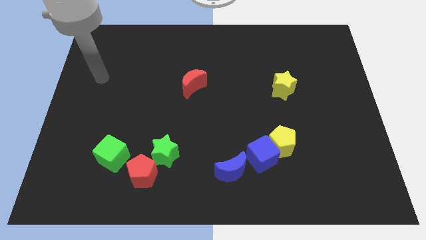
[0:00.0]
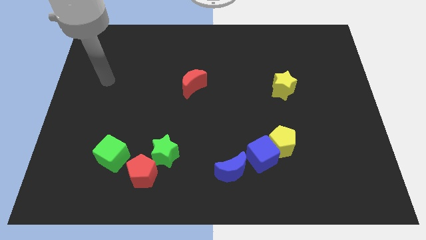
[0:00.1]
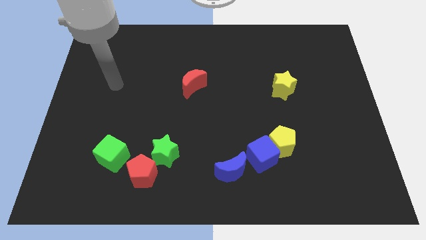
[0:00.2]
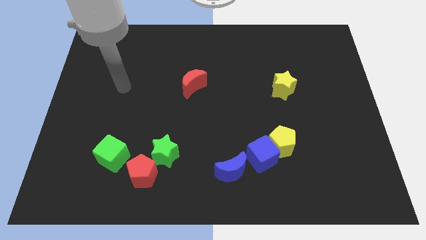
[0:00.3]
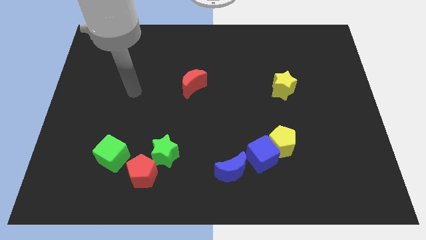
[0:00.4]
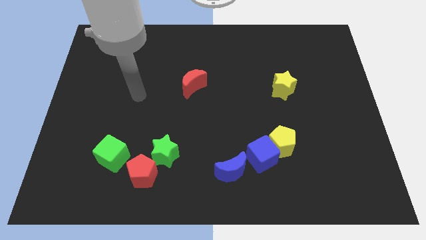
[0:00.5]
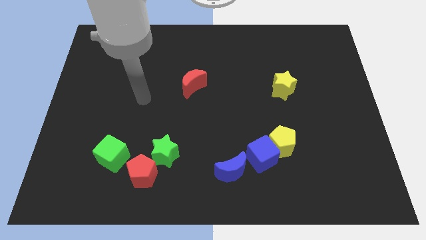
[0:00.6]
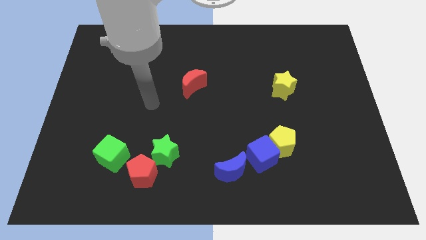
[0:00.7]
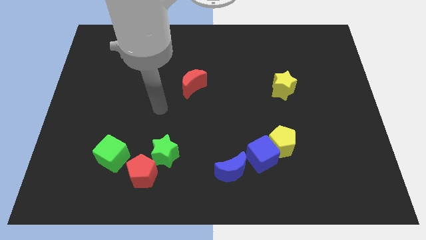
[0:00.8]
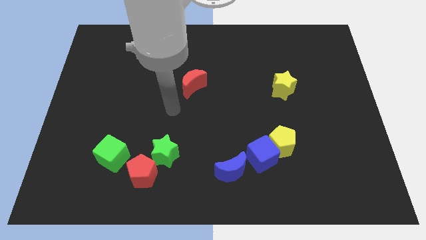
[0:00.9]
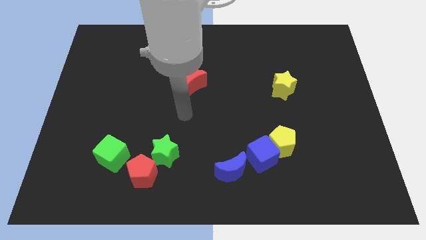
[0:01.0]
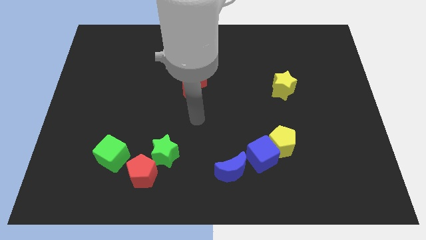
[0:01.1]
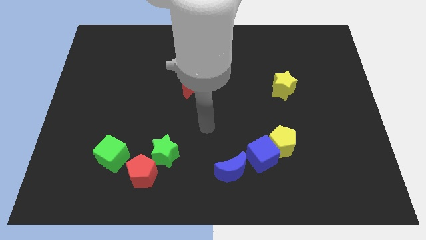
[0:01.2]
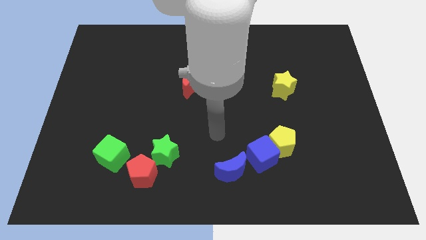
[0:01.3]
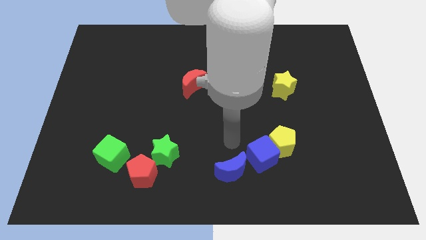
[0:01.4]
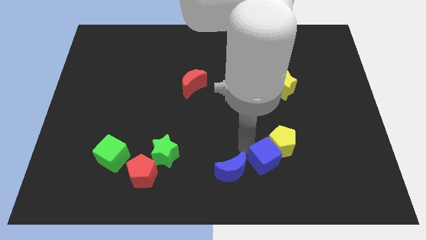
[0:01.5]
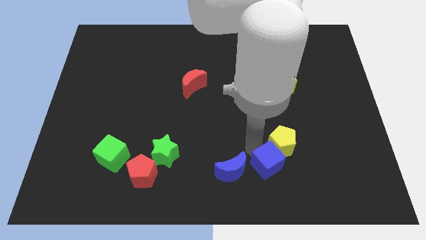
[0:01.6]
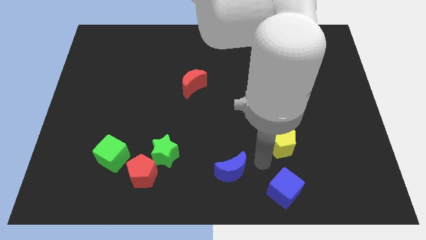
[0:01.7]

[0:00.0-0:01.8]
move the yellow pentagon away from the blue cube

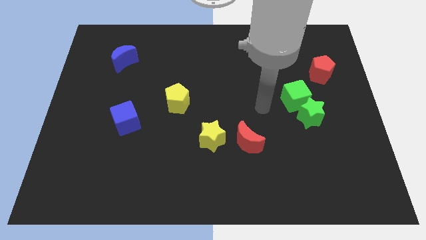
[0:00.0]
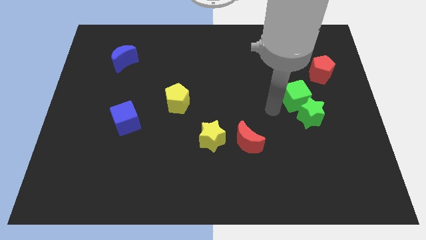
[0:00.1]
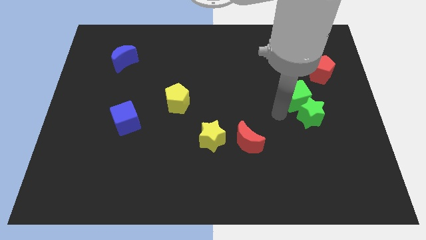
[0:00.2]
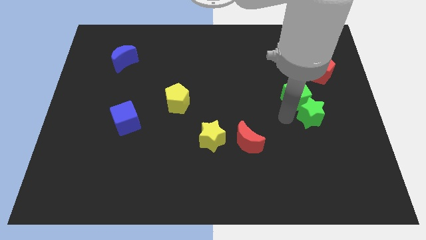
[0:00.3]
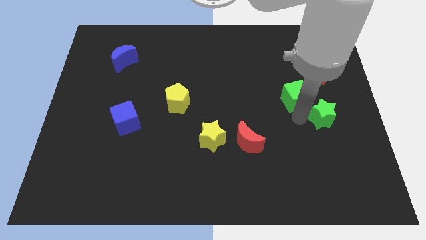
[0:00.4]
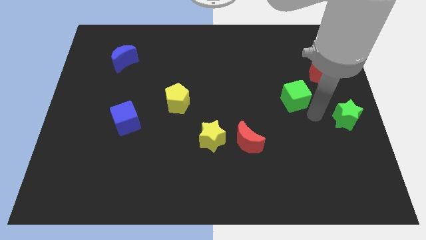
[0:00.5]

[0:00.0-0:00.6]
pull the green cube apart from the green star

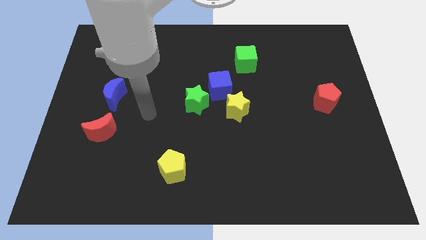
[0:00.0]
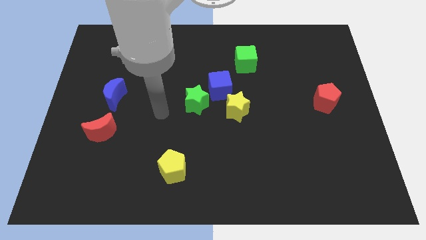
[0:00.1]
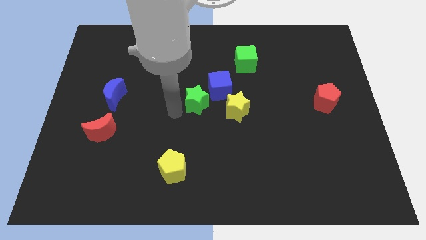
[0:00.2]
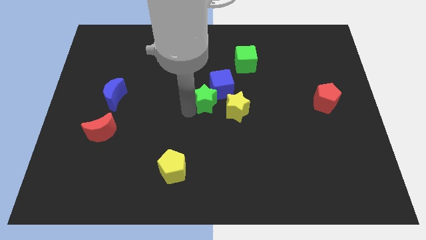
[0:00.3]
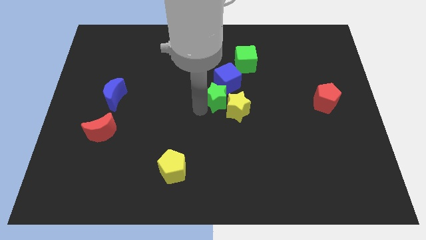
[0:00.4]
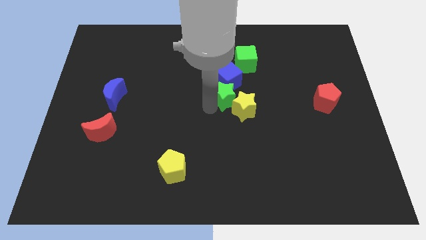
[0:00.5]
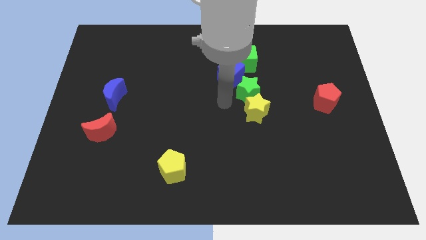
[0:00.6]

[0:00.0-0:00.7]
move the blue cube away from the green star and yellow star

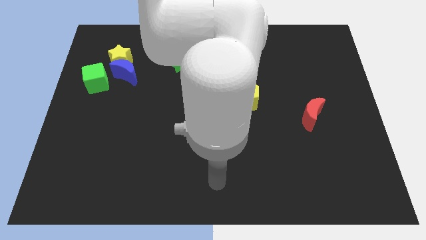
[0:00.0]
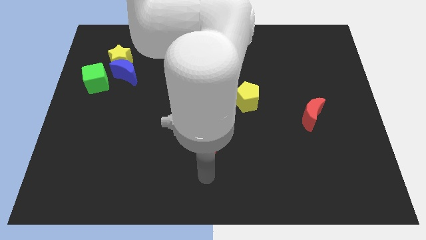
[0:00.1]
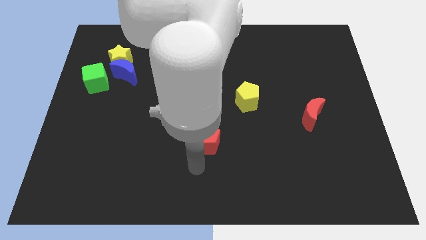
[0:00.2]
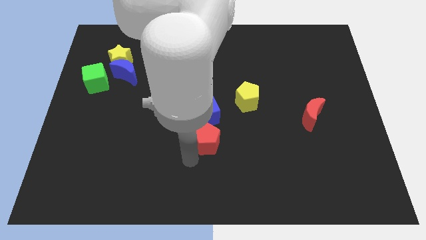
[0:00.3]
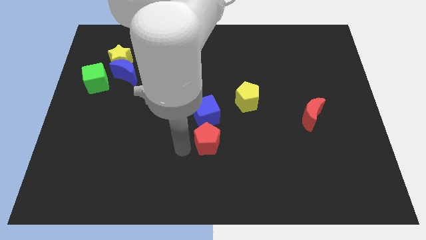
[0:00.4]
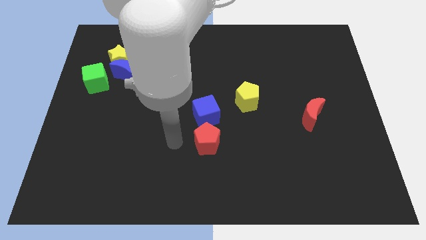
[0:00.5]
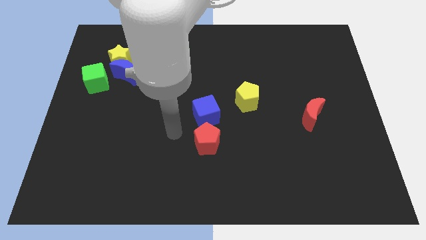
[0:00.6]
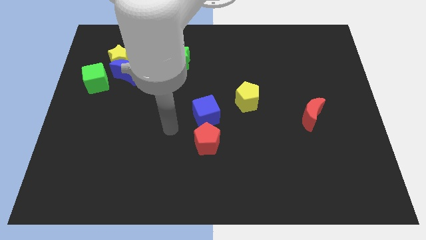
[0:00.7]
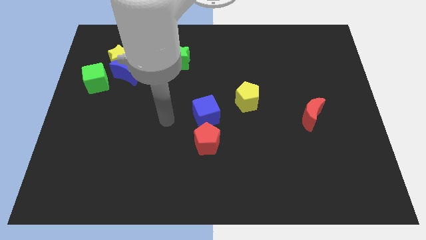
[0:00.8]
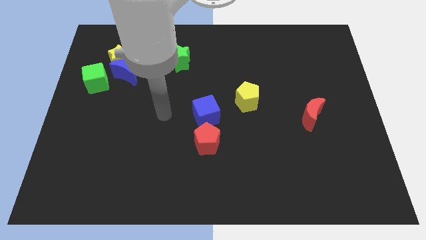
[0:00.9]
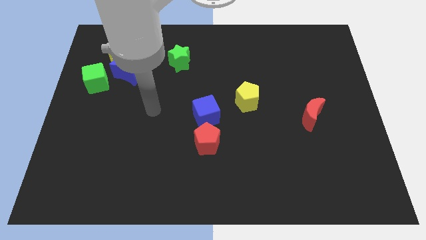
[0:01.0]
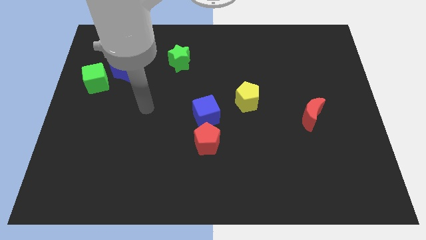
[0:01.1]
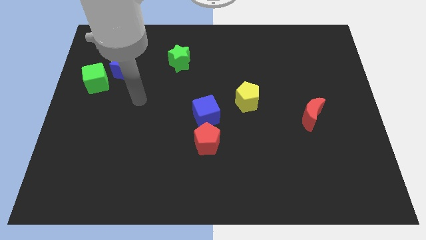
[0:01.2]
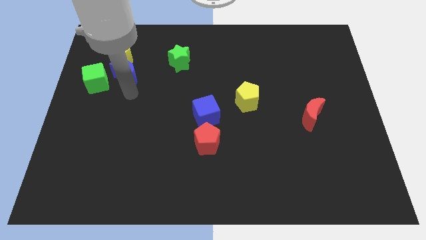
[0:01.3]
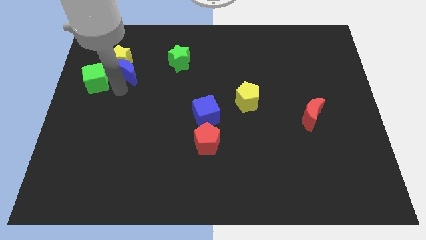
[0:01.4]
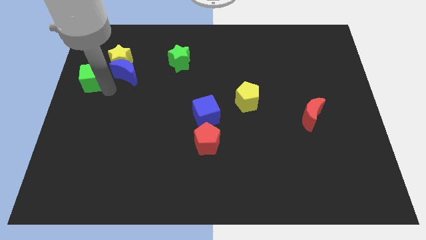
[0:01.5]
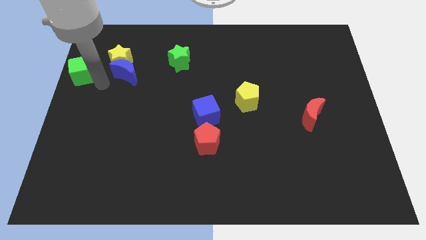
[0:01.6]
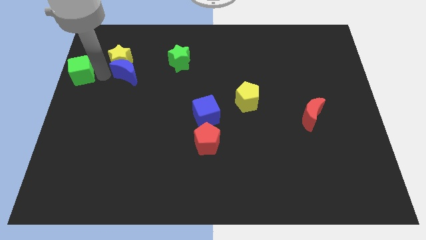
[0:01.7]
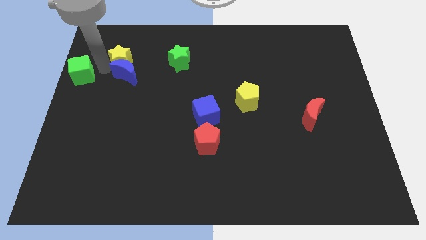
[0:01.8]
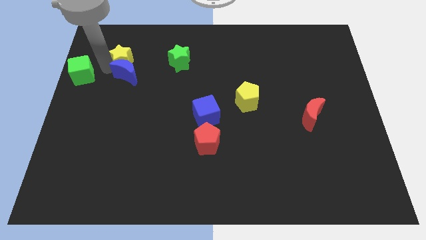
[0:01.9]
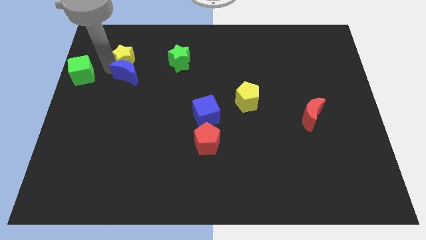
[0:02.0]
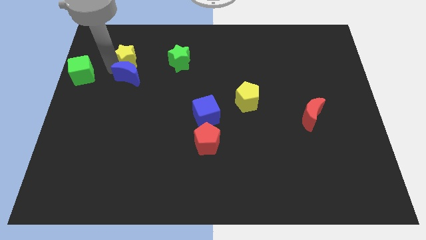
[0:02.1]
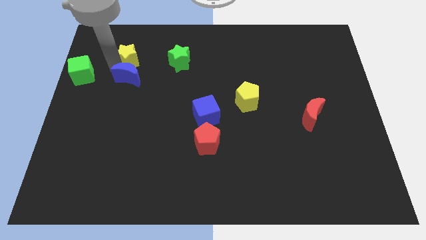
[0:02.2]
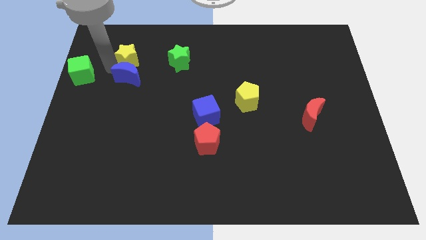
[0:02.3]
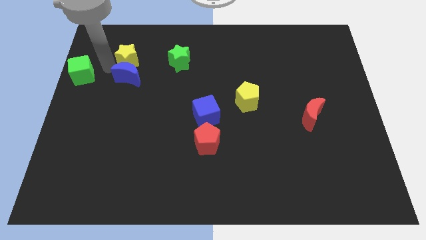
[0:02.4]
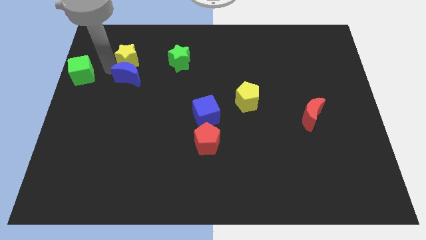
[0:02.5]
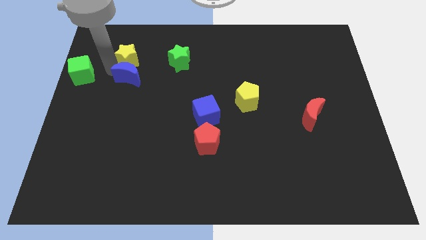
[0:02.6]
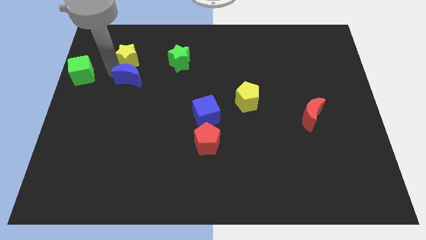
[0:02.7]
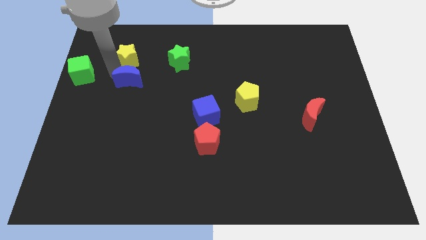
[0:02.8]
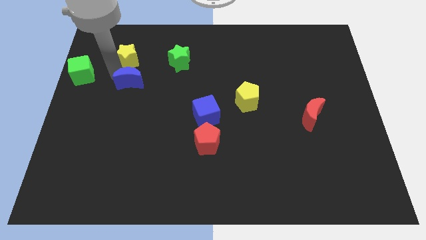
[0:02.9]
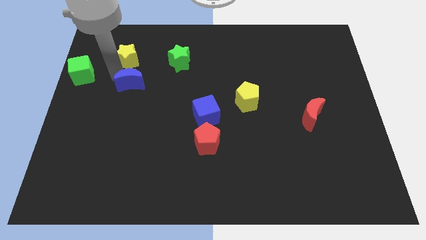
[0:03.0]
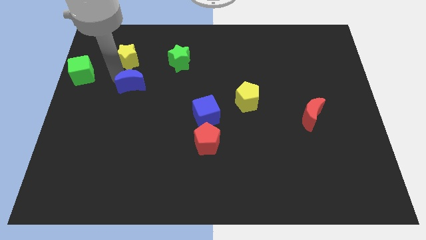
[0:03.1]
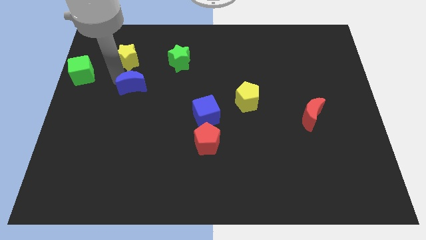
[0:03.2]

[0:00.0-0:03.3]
pull the blue moon apart from the yellow star and green cube

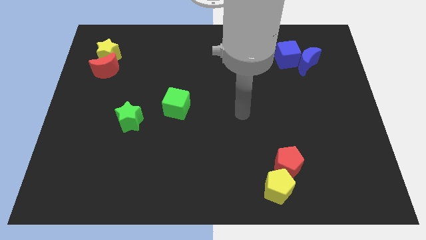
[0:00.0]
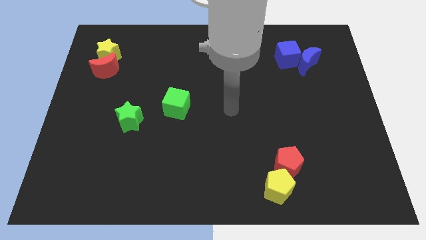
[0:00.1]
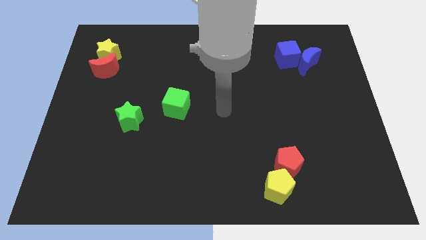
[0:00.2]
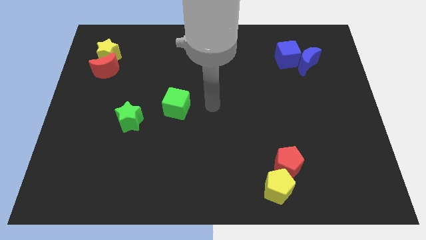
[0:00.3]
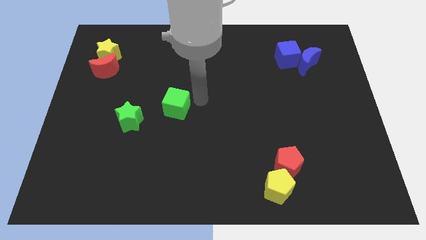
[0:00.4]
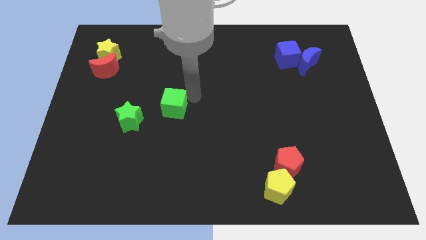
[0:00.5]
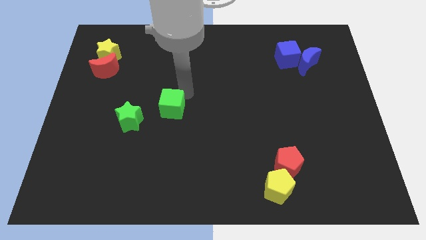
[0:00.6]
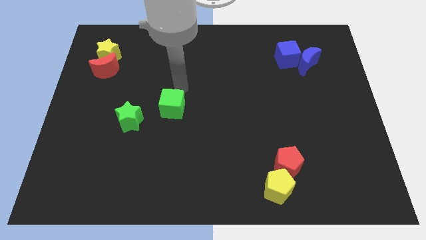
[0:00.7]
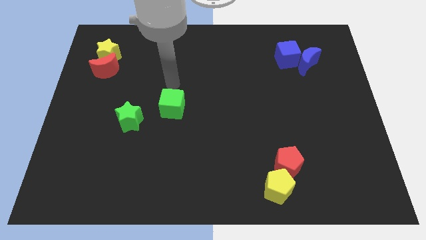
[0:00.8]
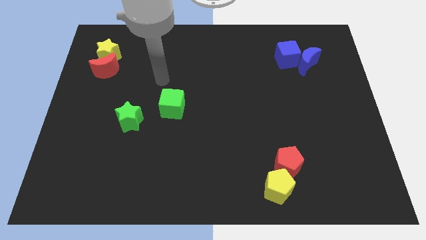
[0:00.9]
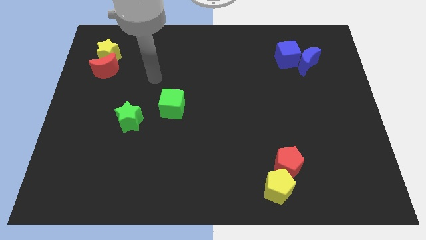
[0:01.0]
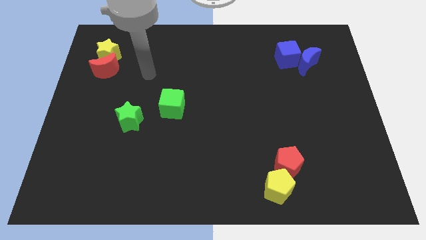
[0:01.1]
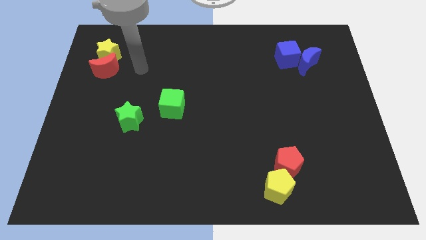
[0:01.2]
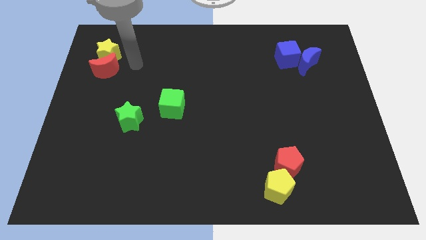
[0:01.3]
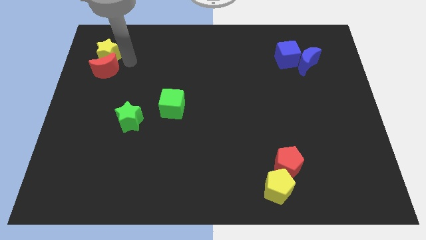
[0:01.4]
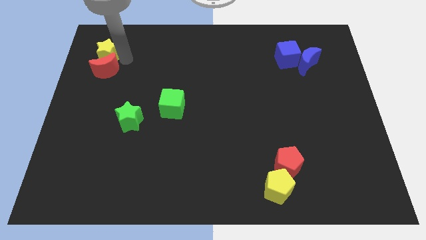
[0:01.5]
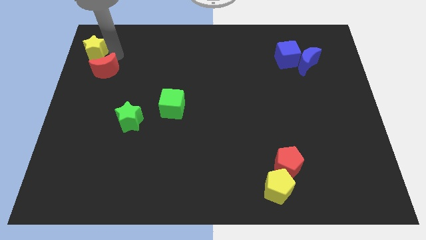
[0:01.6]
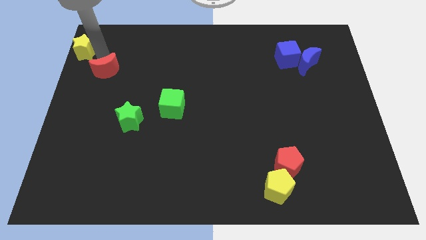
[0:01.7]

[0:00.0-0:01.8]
separate the red moon from the yellow star

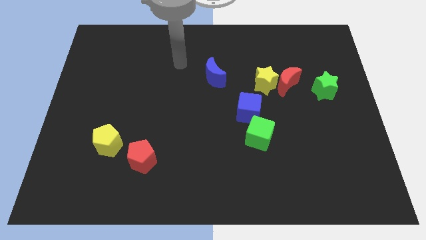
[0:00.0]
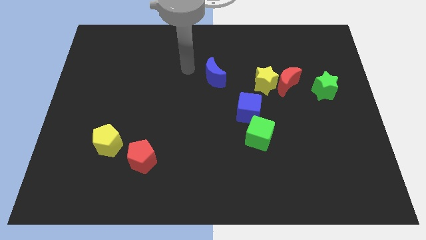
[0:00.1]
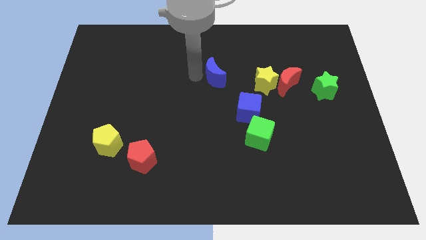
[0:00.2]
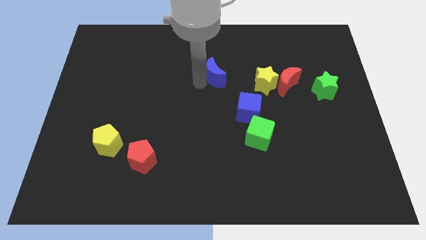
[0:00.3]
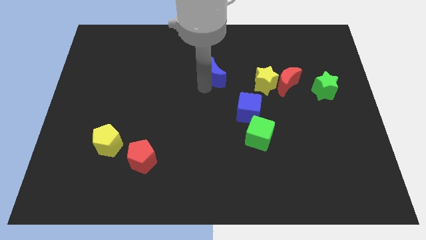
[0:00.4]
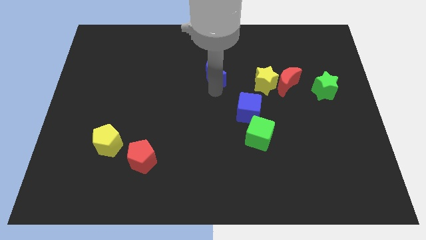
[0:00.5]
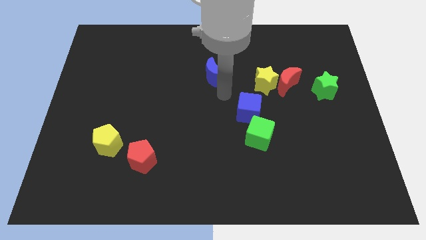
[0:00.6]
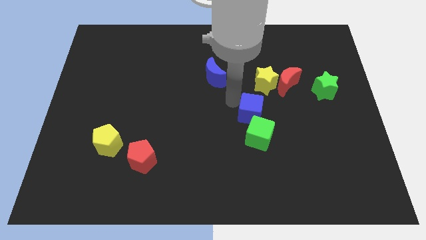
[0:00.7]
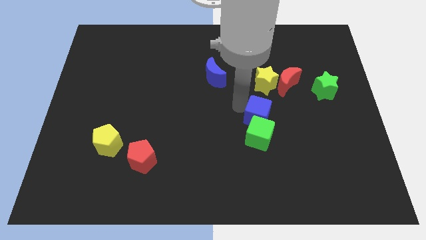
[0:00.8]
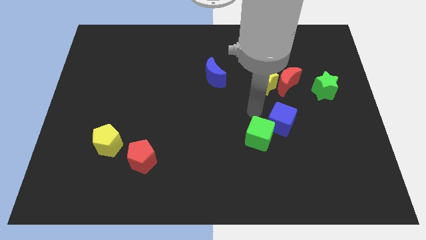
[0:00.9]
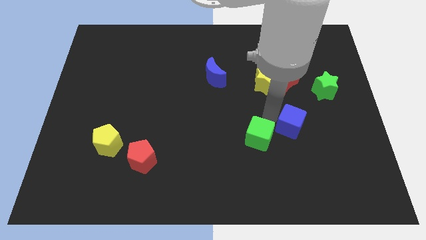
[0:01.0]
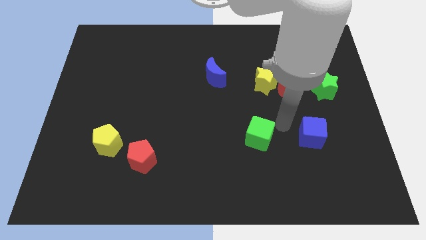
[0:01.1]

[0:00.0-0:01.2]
pull the green cube apart from the blue cube
